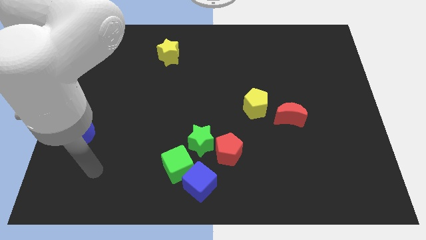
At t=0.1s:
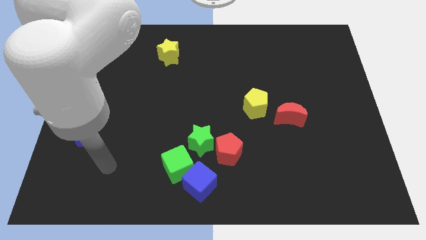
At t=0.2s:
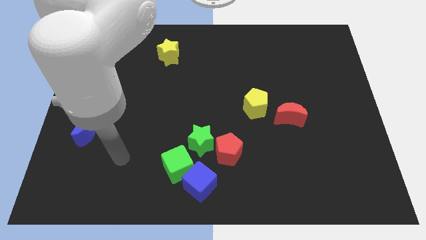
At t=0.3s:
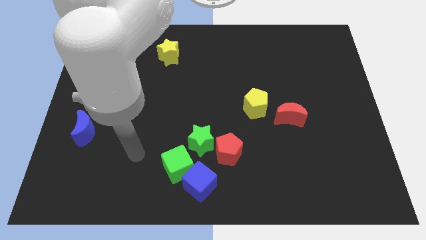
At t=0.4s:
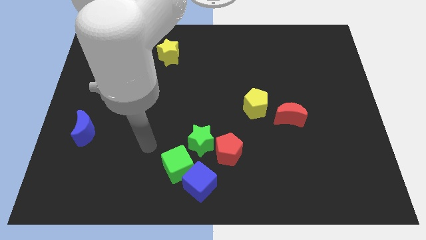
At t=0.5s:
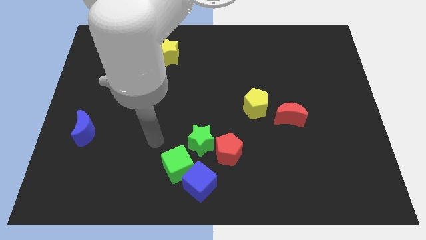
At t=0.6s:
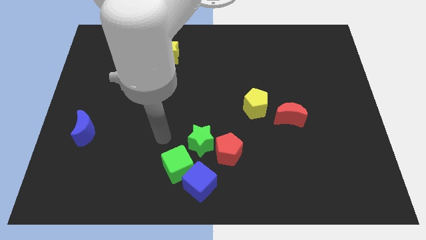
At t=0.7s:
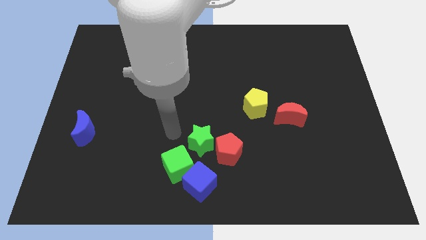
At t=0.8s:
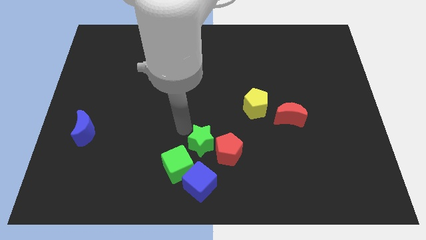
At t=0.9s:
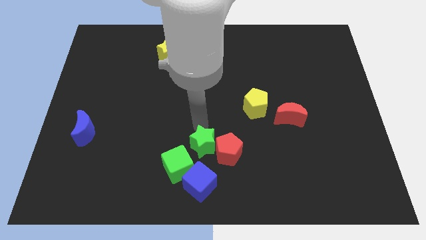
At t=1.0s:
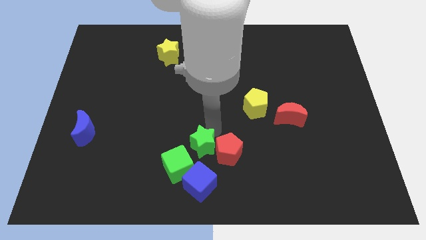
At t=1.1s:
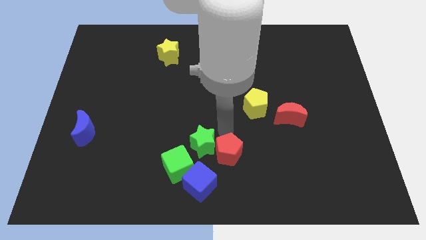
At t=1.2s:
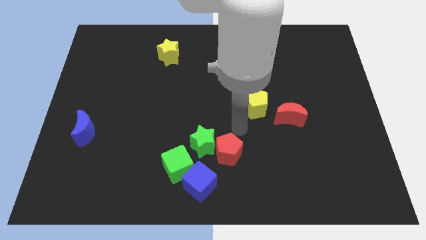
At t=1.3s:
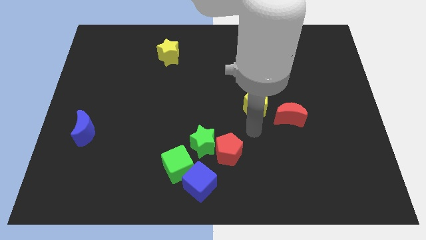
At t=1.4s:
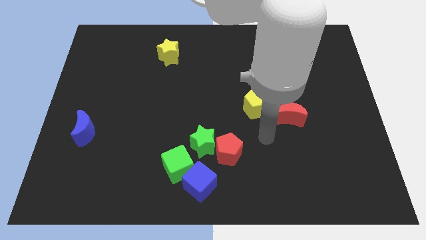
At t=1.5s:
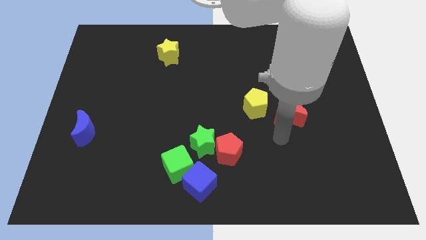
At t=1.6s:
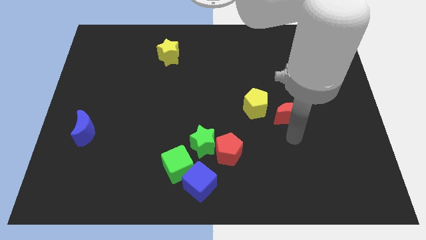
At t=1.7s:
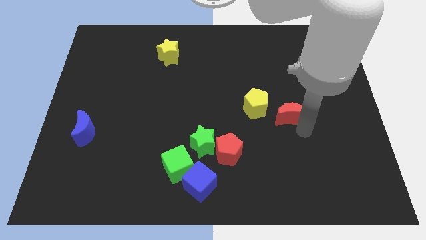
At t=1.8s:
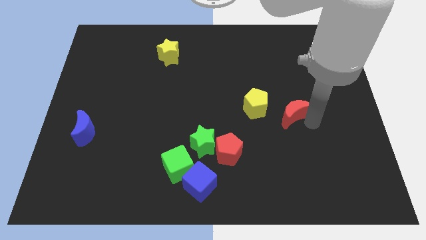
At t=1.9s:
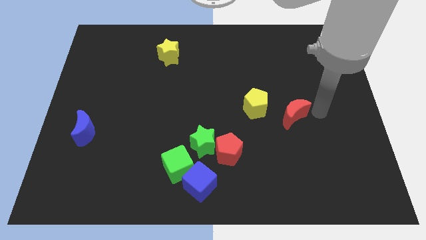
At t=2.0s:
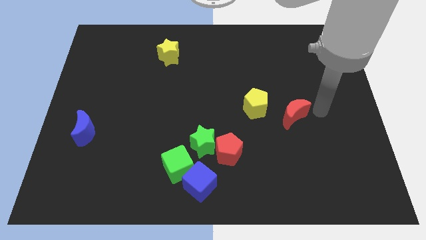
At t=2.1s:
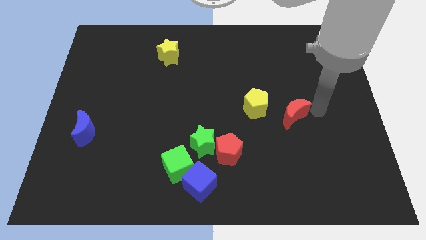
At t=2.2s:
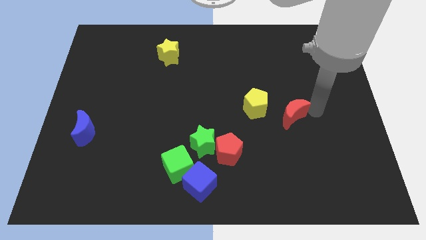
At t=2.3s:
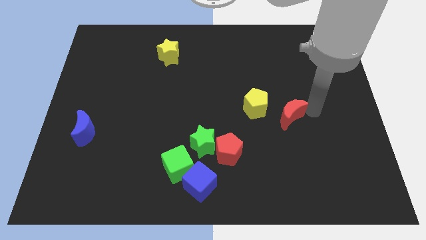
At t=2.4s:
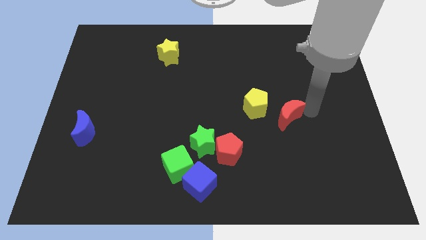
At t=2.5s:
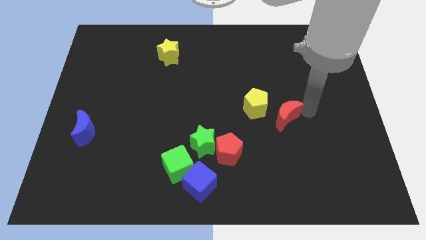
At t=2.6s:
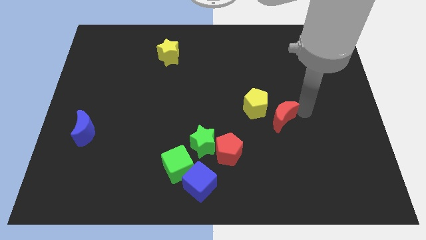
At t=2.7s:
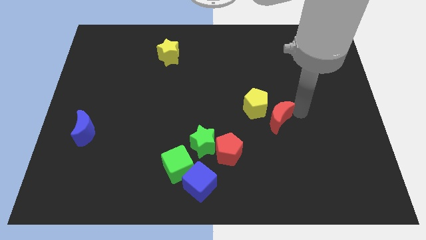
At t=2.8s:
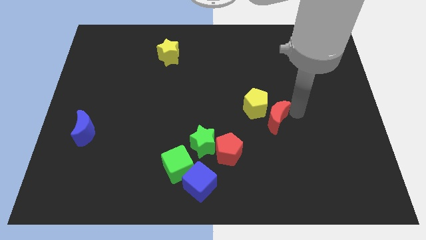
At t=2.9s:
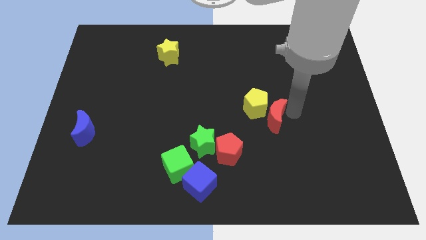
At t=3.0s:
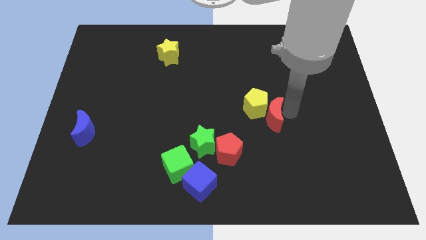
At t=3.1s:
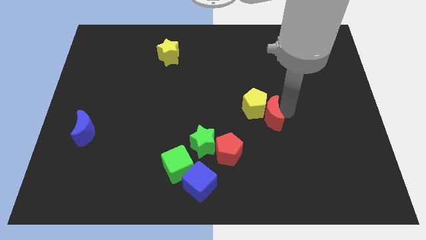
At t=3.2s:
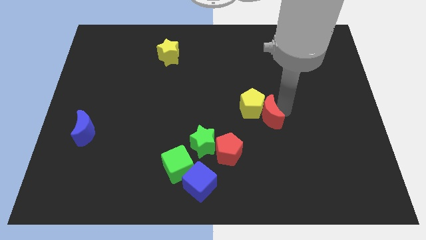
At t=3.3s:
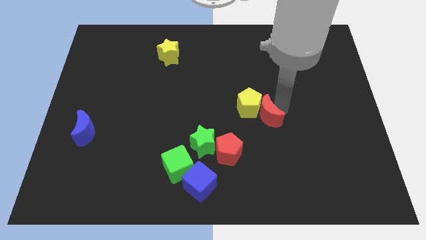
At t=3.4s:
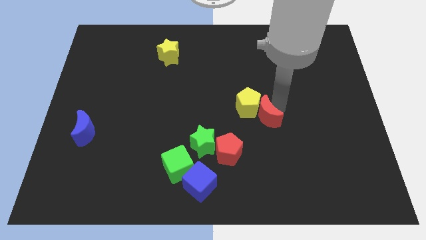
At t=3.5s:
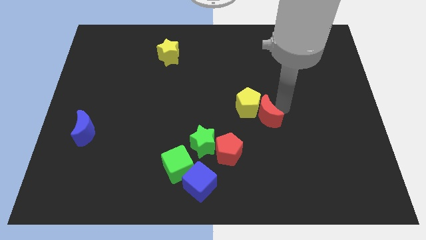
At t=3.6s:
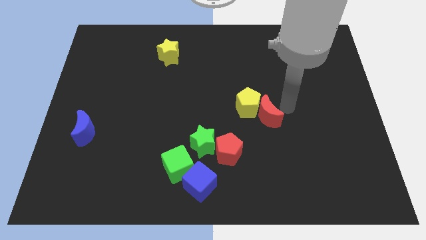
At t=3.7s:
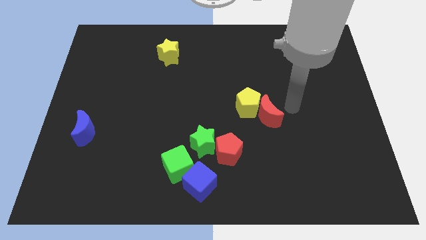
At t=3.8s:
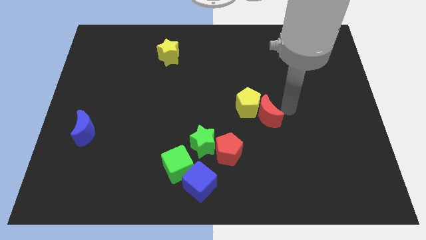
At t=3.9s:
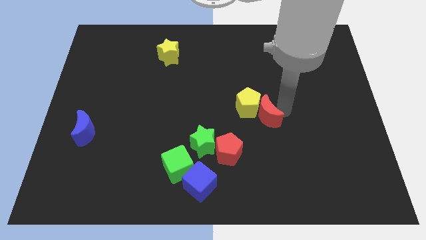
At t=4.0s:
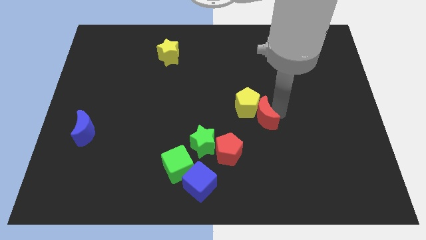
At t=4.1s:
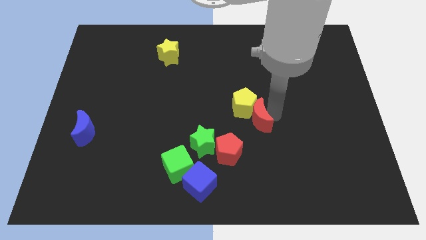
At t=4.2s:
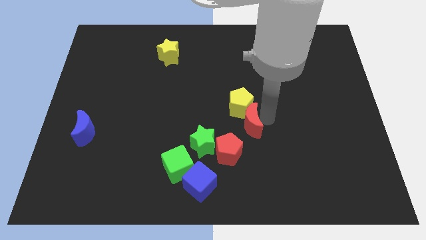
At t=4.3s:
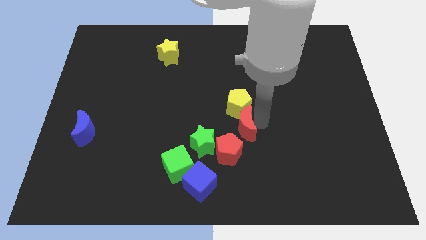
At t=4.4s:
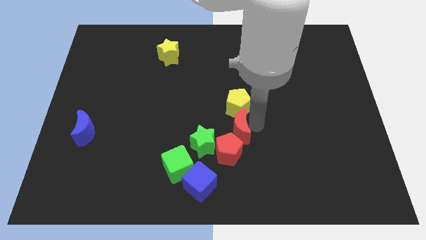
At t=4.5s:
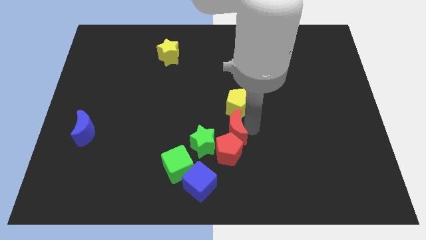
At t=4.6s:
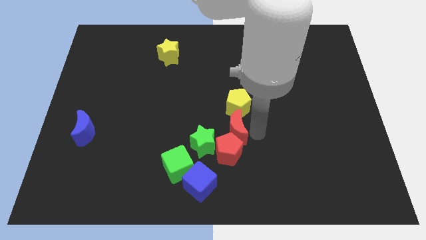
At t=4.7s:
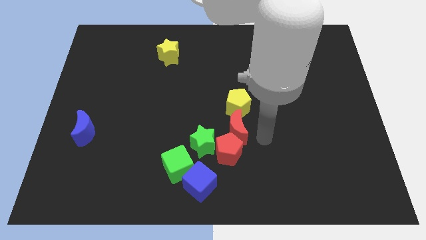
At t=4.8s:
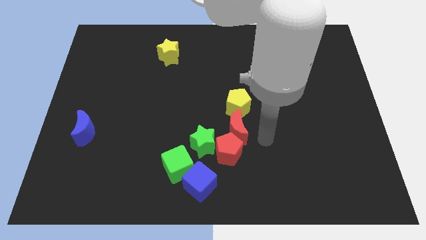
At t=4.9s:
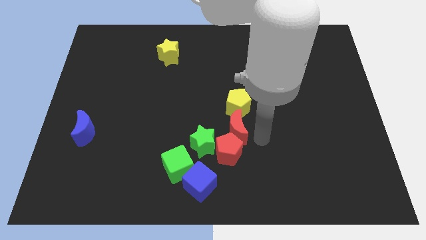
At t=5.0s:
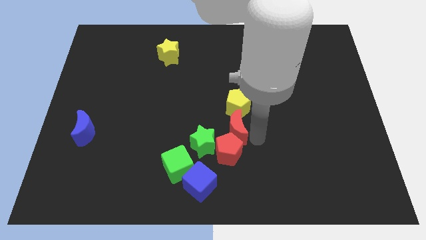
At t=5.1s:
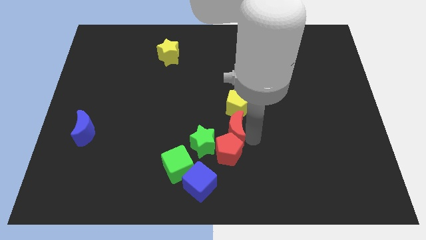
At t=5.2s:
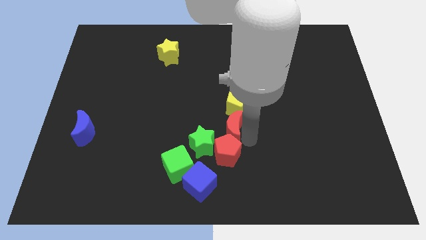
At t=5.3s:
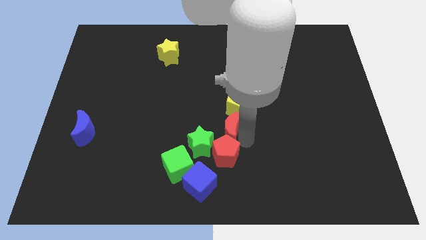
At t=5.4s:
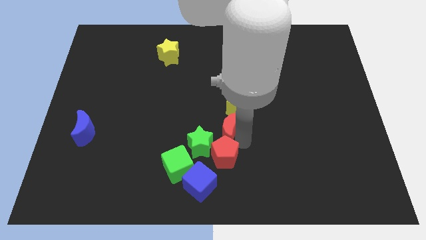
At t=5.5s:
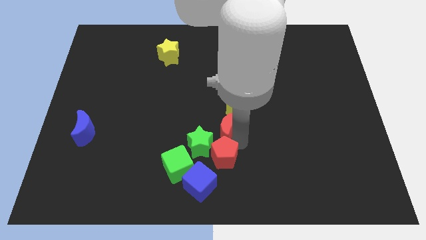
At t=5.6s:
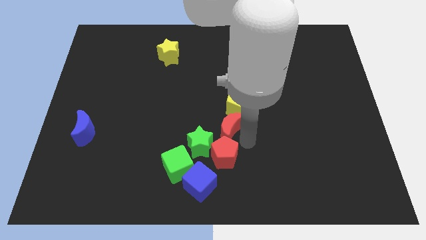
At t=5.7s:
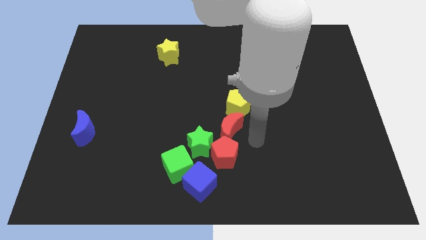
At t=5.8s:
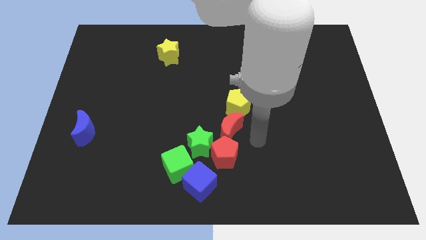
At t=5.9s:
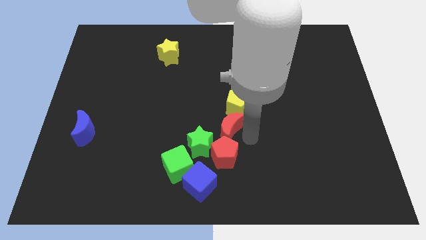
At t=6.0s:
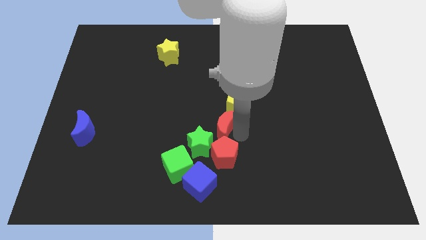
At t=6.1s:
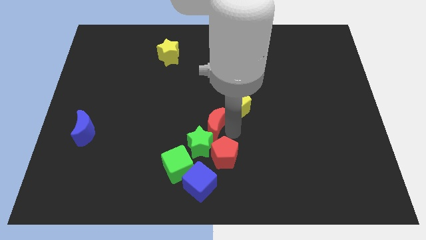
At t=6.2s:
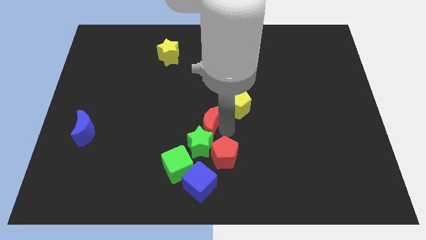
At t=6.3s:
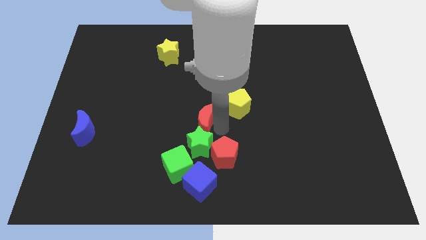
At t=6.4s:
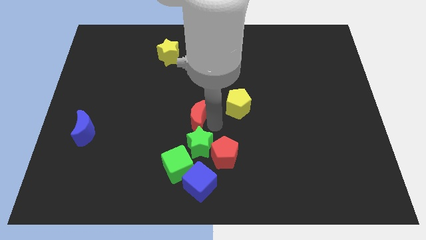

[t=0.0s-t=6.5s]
slide the red moon left

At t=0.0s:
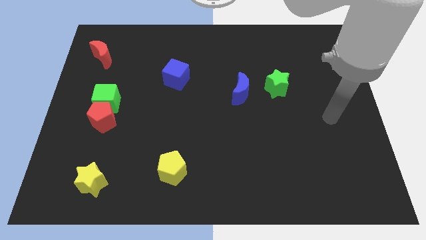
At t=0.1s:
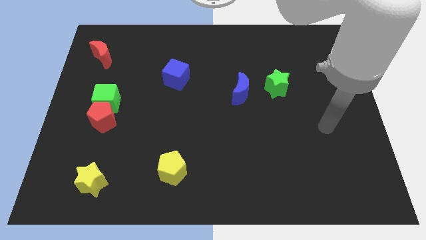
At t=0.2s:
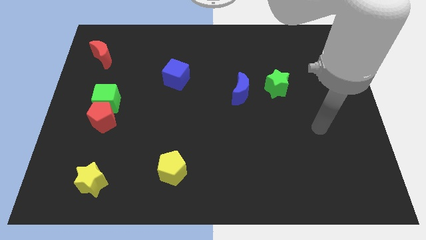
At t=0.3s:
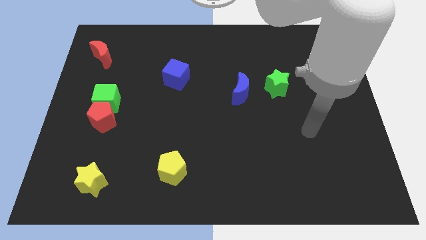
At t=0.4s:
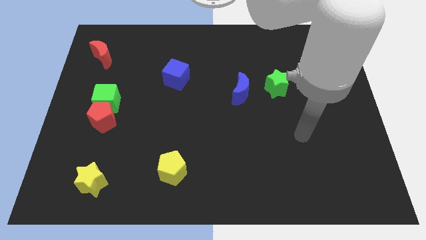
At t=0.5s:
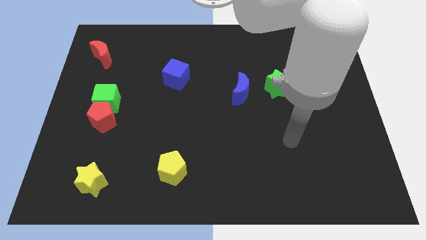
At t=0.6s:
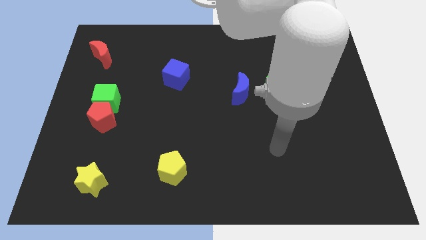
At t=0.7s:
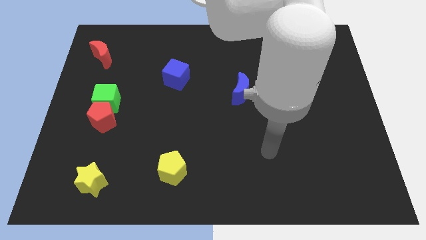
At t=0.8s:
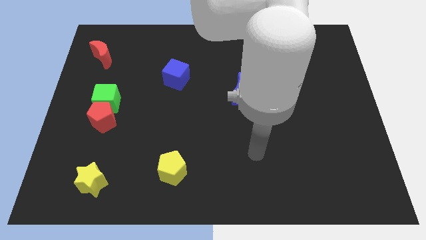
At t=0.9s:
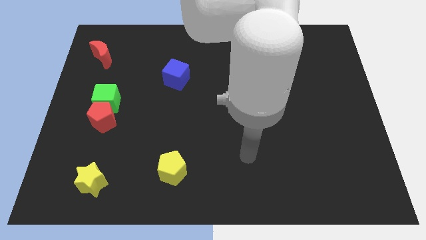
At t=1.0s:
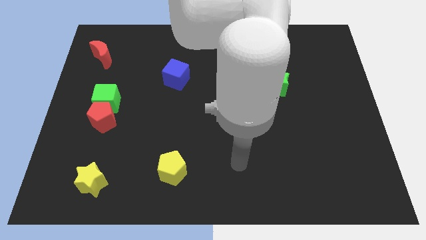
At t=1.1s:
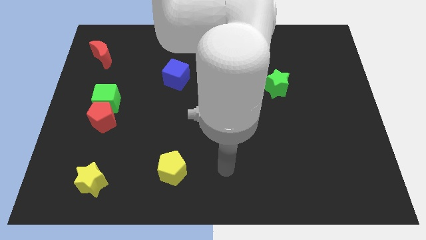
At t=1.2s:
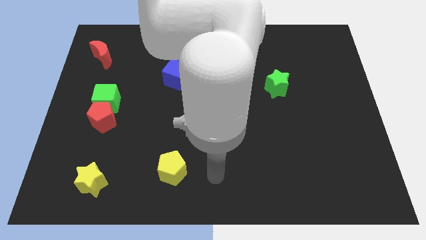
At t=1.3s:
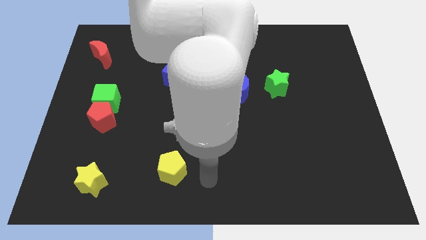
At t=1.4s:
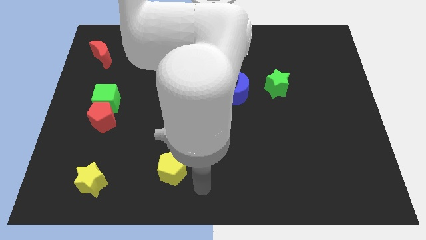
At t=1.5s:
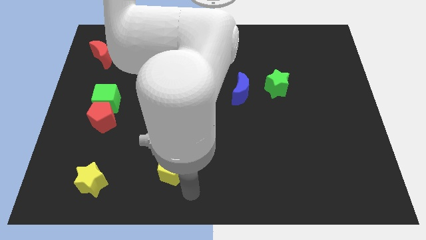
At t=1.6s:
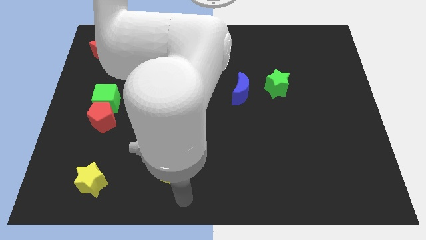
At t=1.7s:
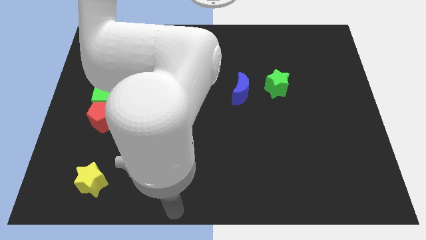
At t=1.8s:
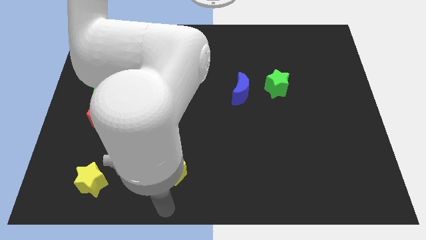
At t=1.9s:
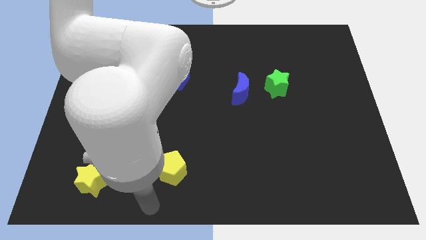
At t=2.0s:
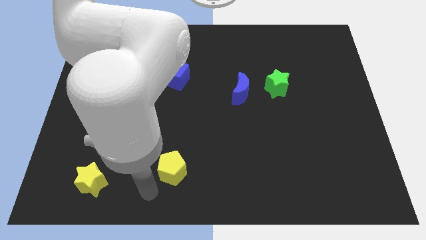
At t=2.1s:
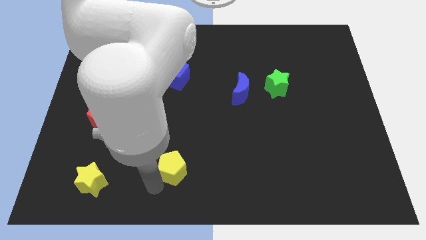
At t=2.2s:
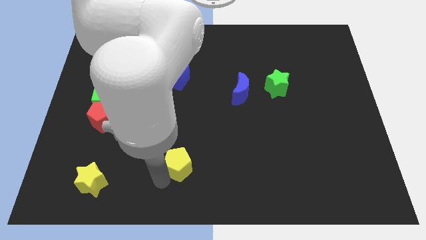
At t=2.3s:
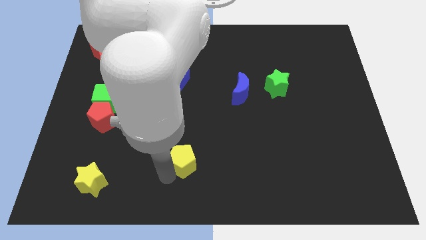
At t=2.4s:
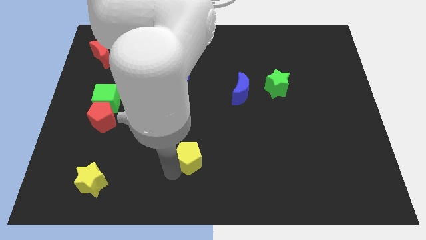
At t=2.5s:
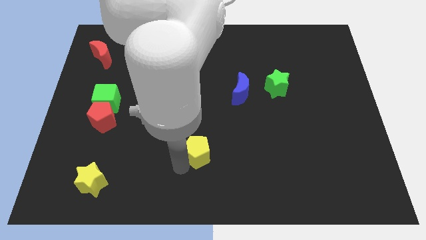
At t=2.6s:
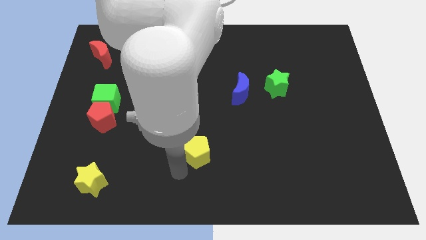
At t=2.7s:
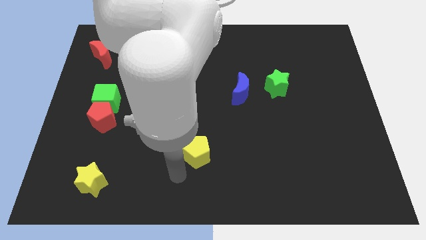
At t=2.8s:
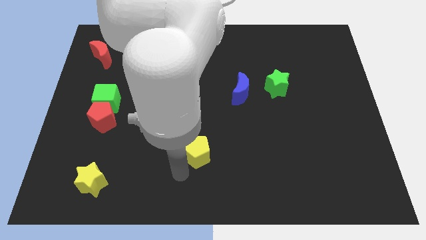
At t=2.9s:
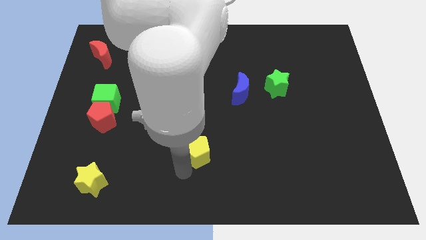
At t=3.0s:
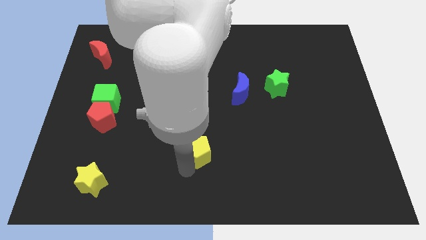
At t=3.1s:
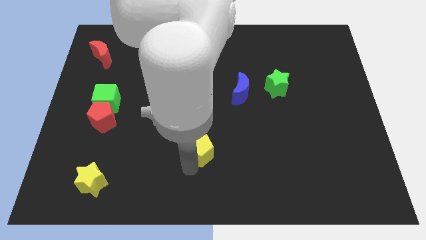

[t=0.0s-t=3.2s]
slightly move the yellow pentagon upwards and to the right diagonally
